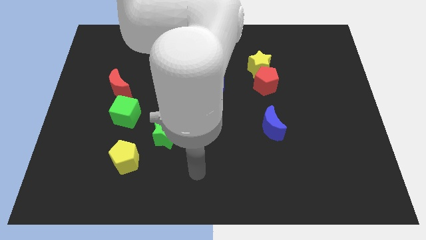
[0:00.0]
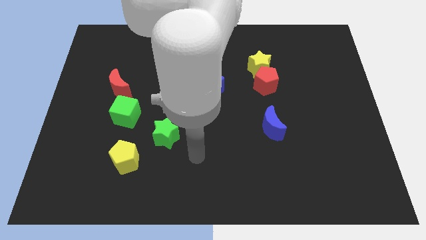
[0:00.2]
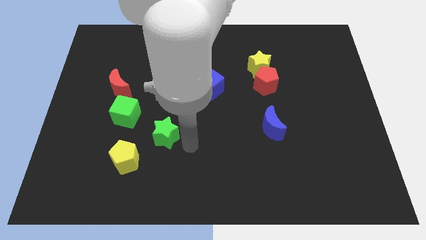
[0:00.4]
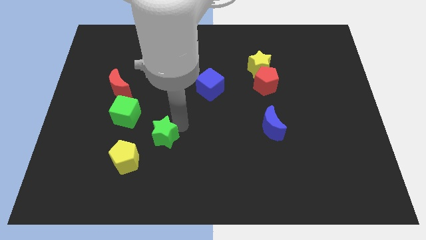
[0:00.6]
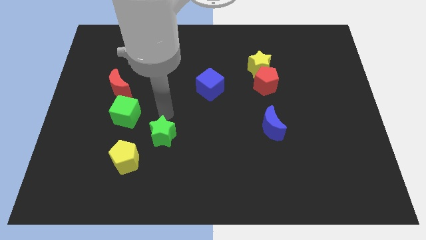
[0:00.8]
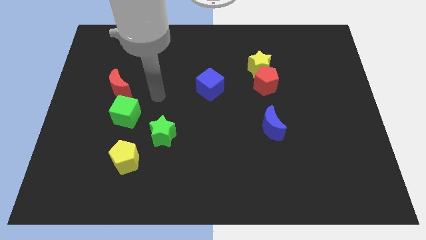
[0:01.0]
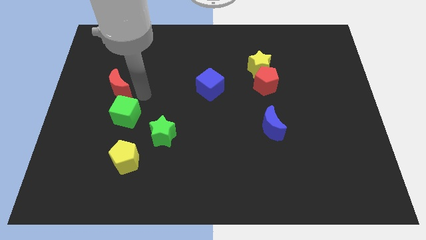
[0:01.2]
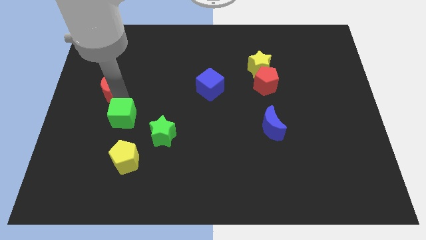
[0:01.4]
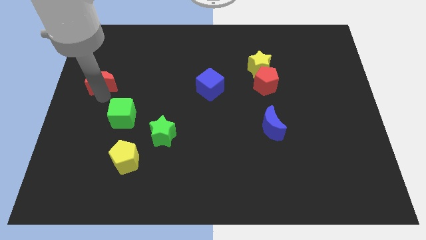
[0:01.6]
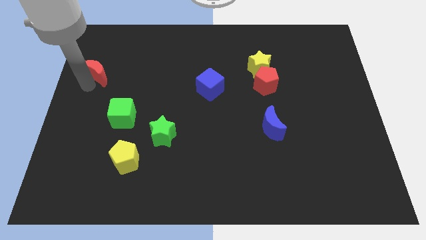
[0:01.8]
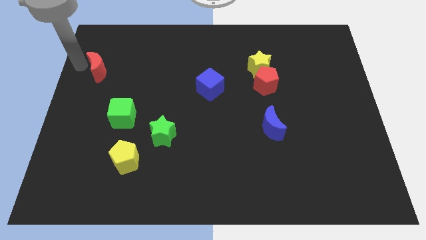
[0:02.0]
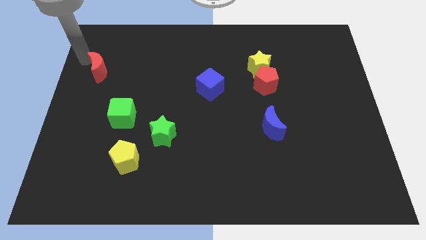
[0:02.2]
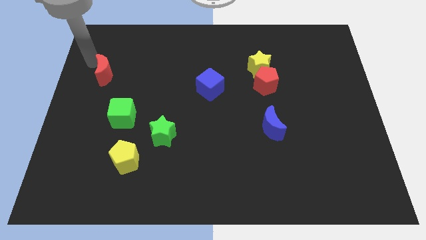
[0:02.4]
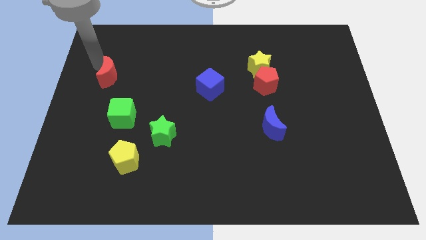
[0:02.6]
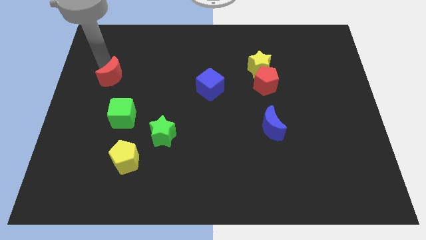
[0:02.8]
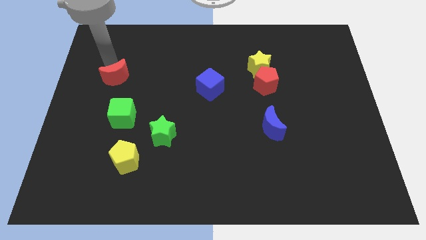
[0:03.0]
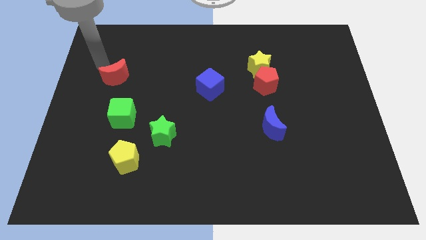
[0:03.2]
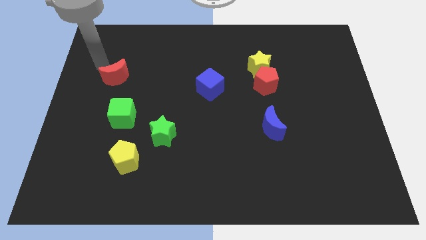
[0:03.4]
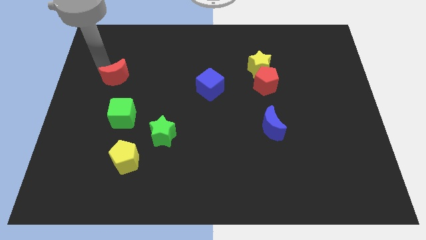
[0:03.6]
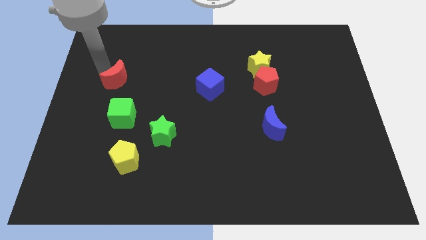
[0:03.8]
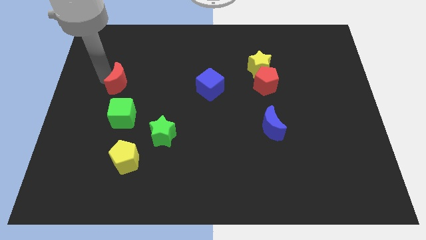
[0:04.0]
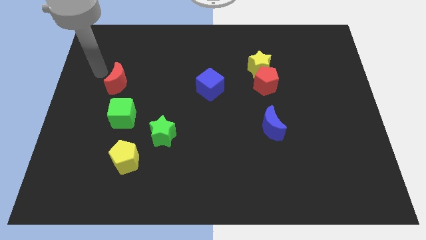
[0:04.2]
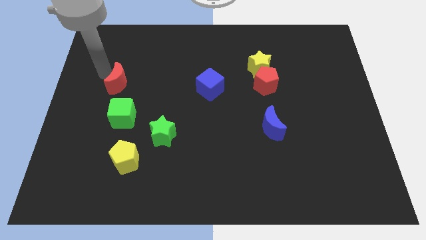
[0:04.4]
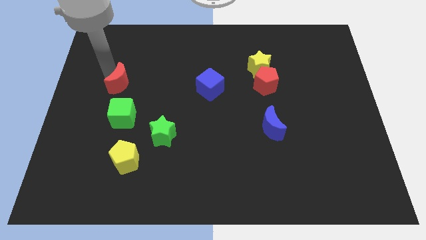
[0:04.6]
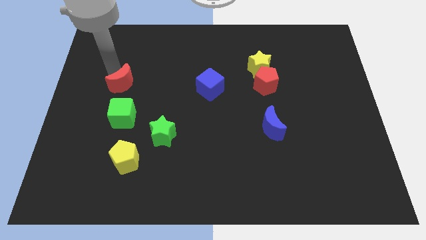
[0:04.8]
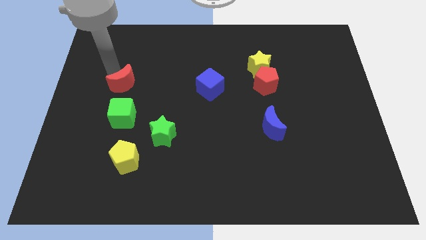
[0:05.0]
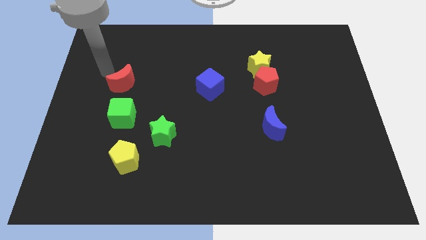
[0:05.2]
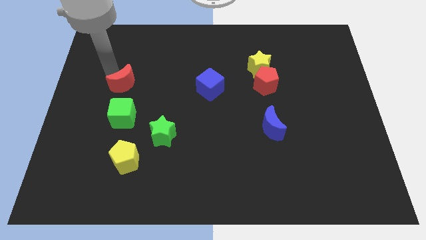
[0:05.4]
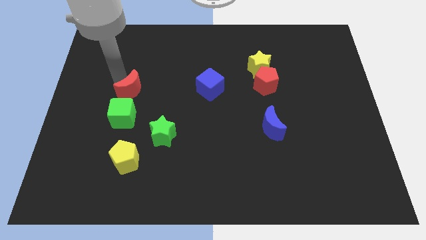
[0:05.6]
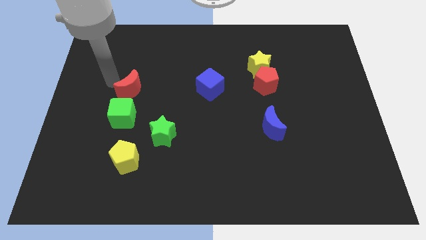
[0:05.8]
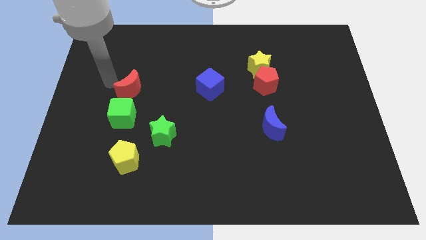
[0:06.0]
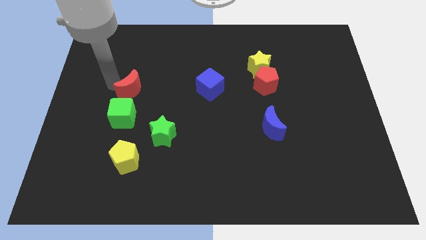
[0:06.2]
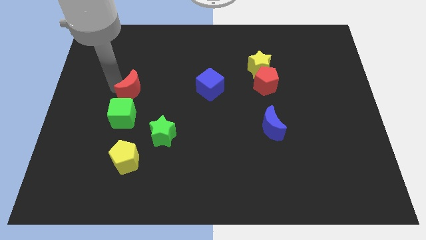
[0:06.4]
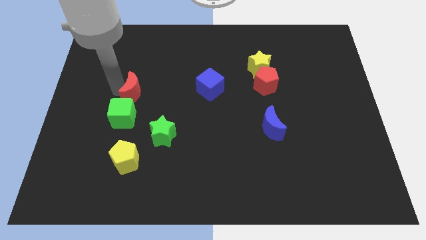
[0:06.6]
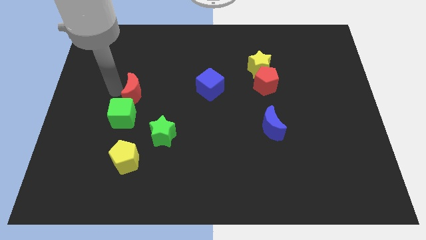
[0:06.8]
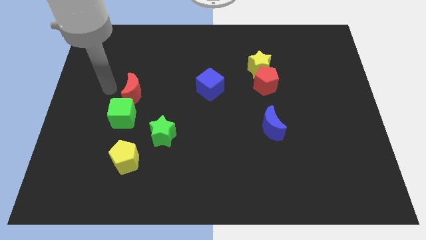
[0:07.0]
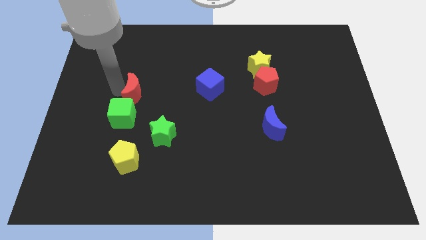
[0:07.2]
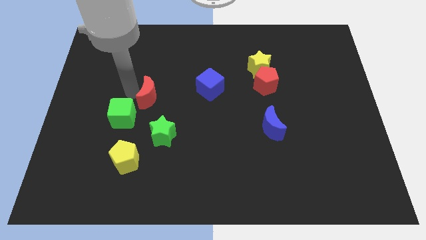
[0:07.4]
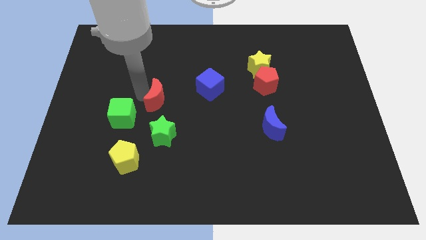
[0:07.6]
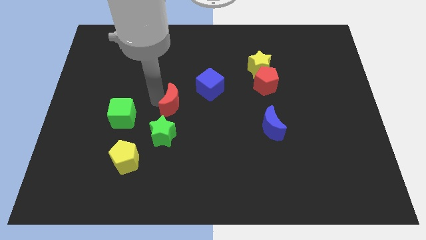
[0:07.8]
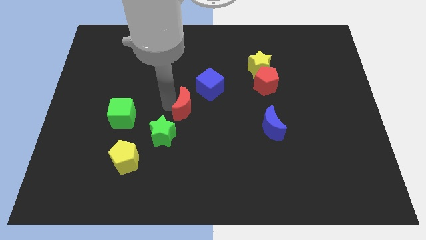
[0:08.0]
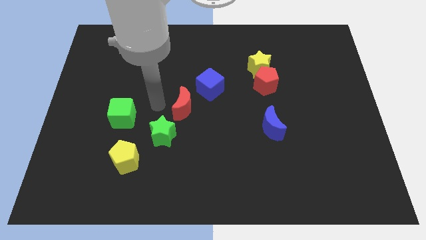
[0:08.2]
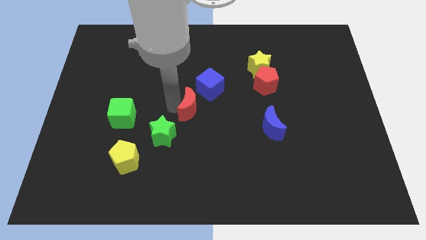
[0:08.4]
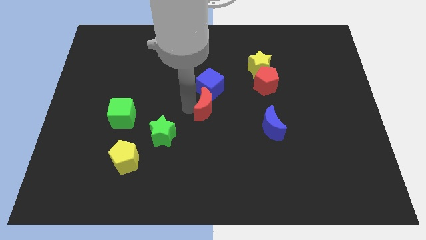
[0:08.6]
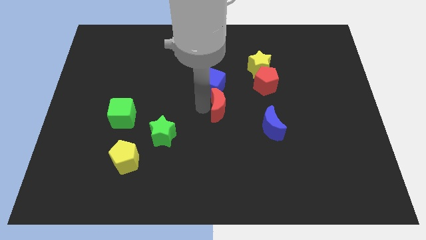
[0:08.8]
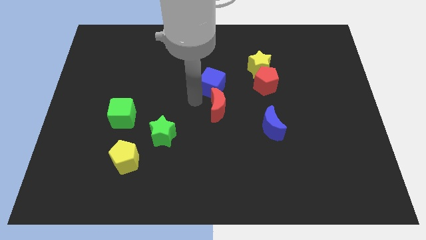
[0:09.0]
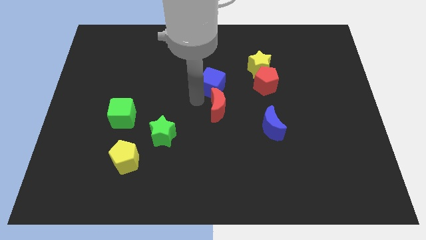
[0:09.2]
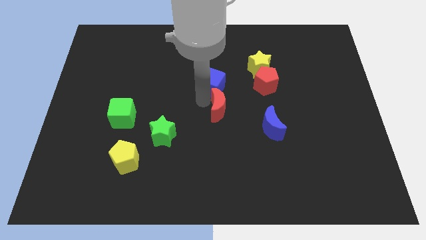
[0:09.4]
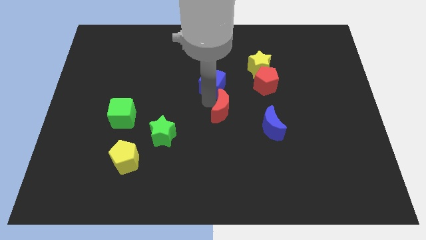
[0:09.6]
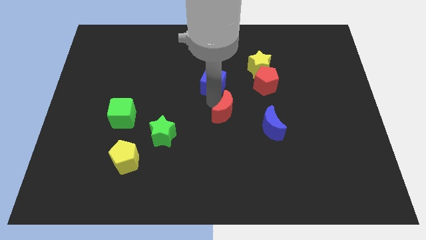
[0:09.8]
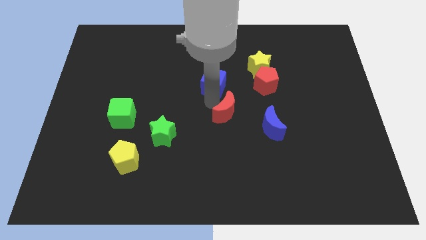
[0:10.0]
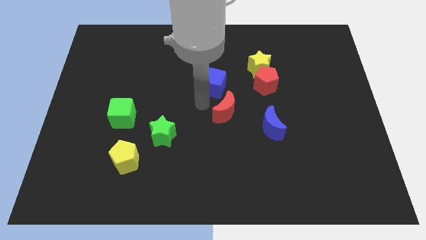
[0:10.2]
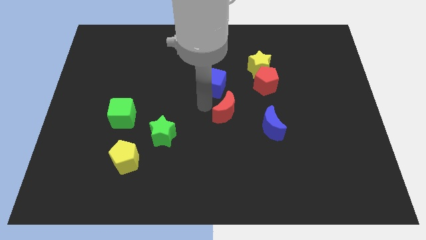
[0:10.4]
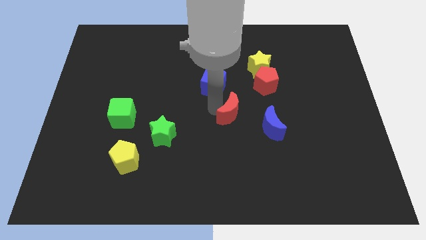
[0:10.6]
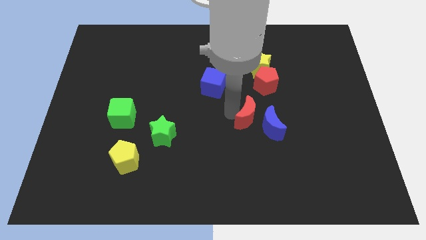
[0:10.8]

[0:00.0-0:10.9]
push the red moon close to the blue moon
